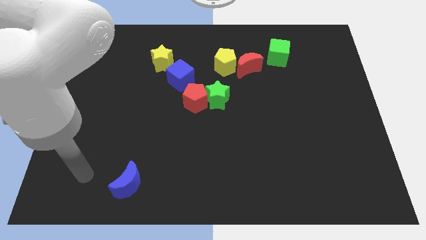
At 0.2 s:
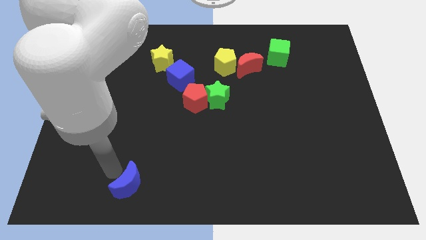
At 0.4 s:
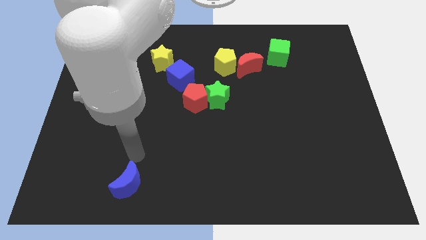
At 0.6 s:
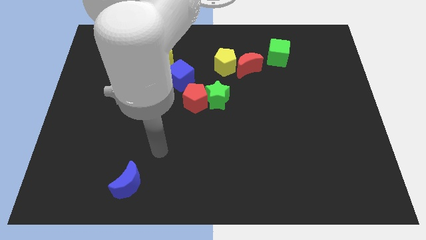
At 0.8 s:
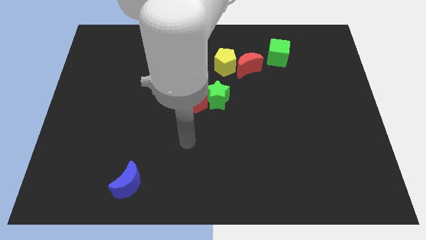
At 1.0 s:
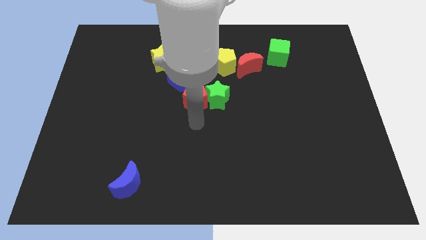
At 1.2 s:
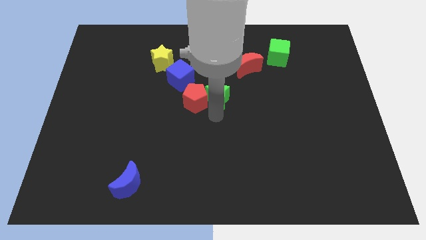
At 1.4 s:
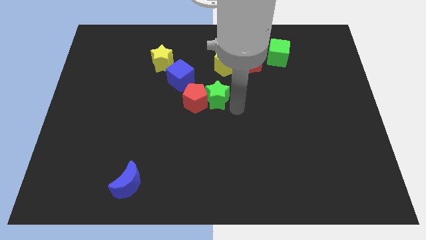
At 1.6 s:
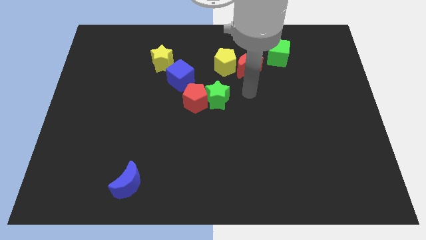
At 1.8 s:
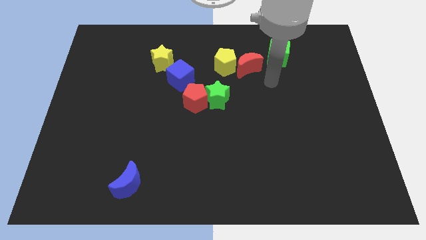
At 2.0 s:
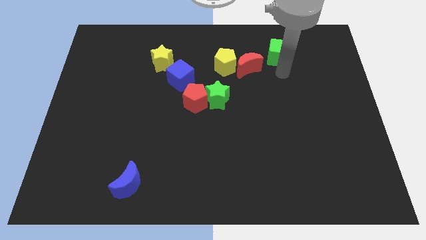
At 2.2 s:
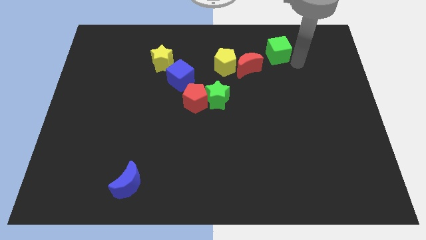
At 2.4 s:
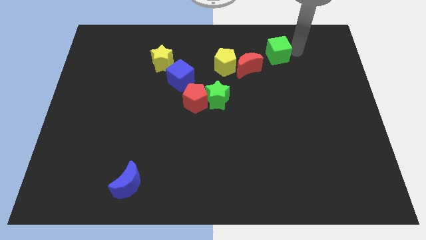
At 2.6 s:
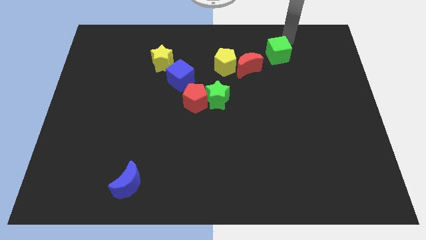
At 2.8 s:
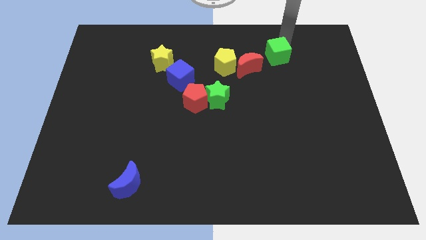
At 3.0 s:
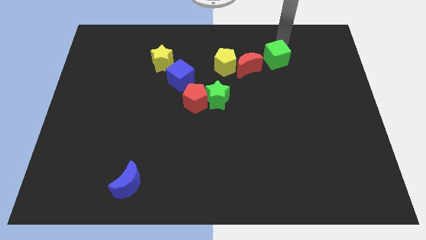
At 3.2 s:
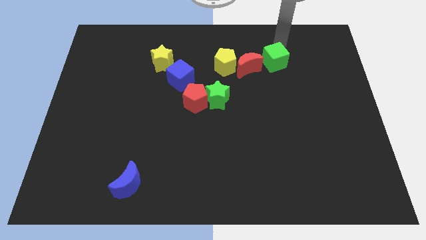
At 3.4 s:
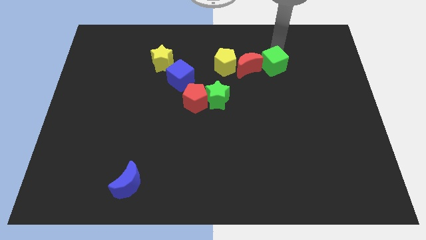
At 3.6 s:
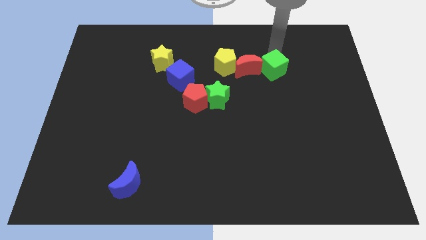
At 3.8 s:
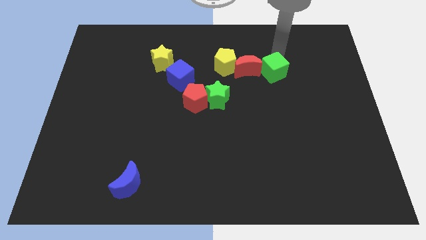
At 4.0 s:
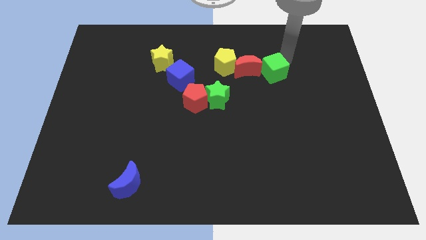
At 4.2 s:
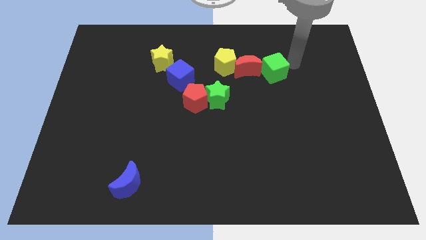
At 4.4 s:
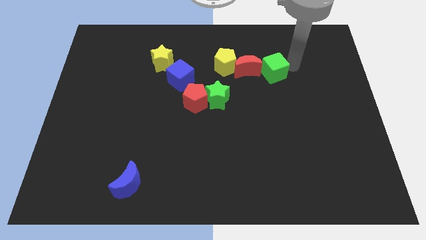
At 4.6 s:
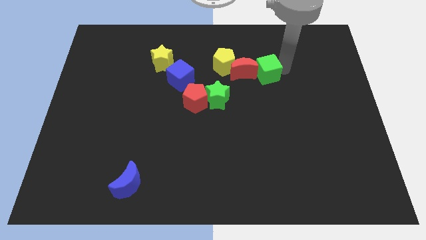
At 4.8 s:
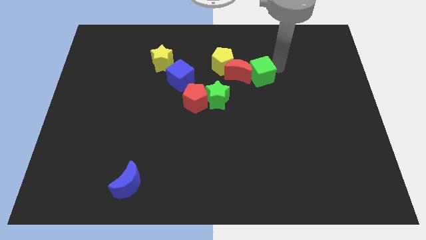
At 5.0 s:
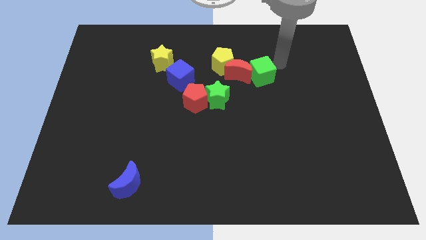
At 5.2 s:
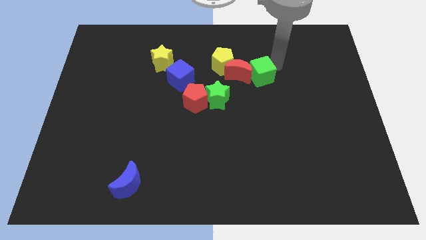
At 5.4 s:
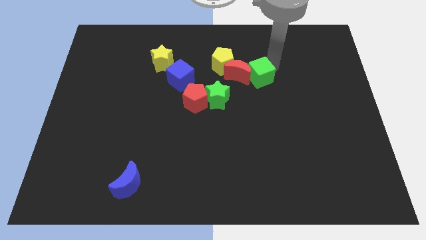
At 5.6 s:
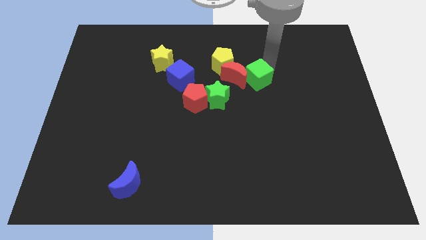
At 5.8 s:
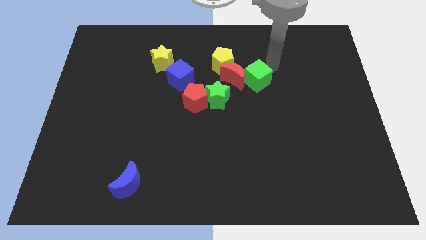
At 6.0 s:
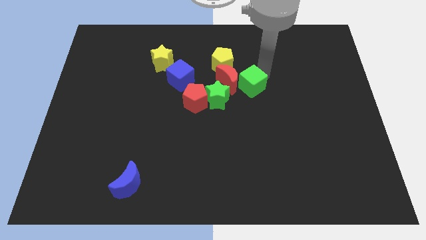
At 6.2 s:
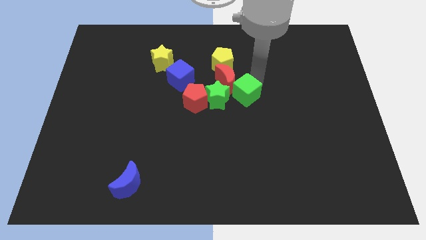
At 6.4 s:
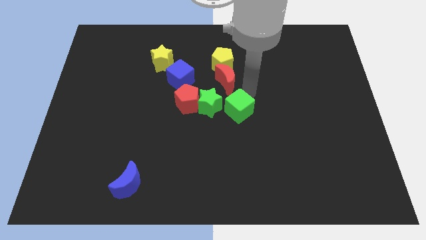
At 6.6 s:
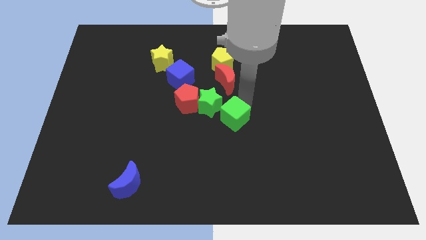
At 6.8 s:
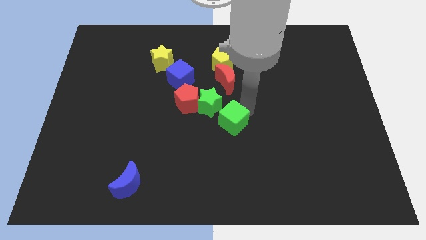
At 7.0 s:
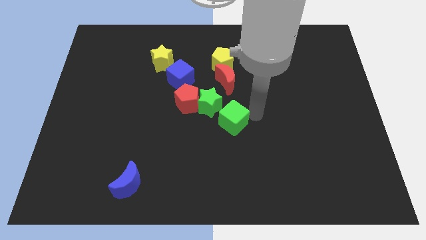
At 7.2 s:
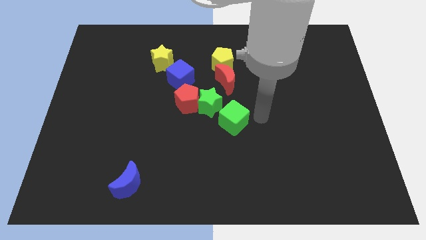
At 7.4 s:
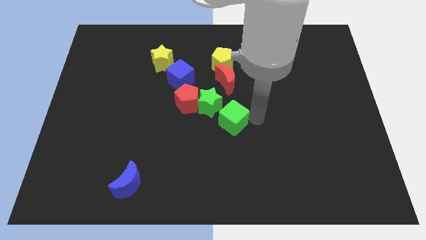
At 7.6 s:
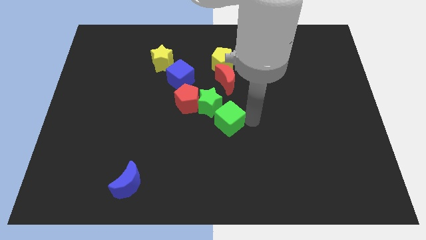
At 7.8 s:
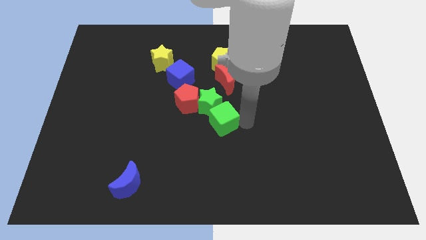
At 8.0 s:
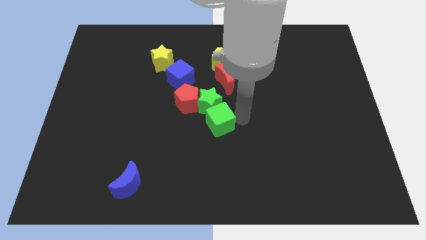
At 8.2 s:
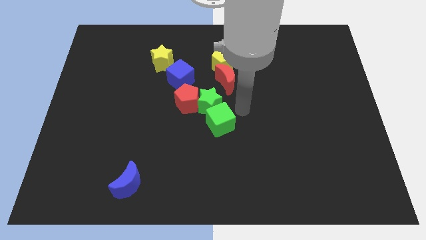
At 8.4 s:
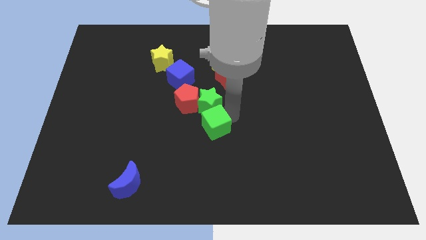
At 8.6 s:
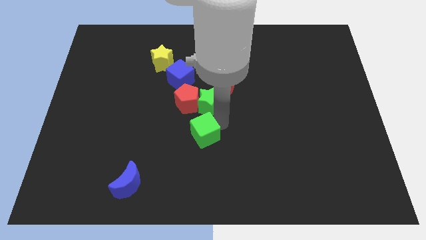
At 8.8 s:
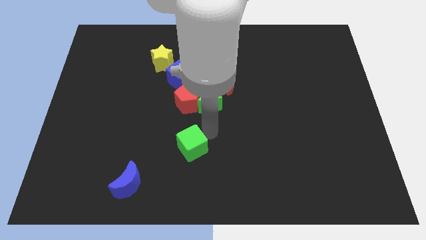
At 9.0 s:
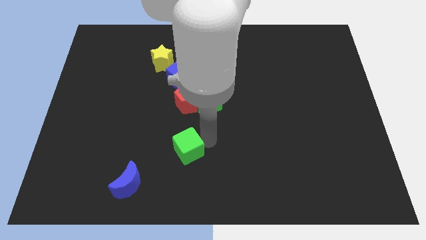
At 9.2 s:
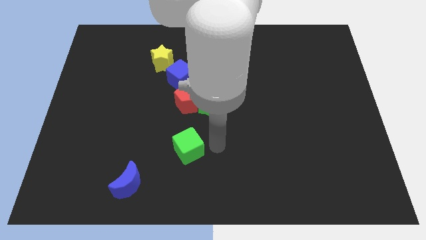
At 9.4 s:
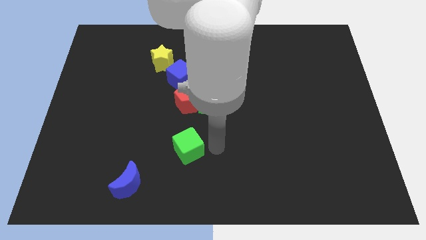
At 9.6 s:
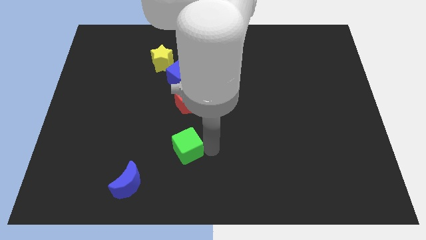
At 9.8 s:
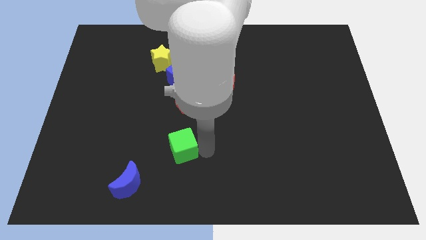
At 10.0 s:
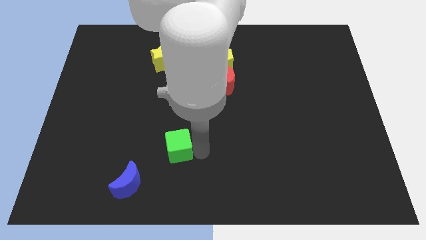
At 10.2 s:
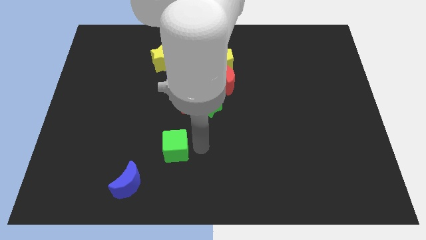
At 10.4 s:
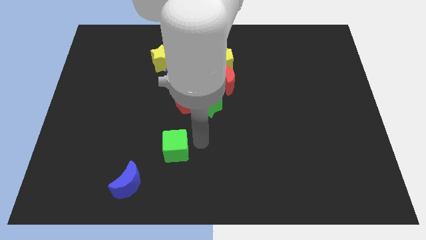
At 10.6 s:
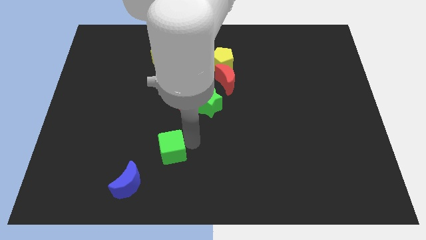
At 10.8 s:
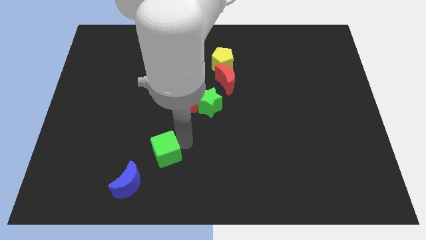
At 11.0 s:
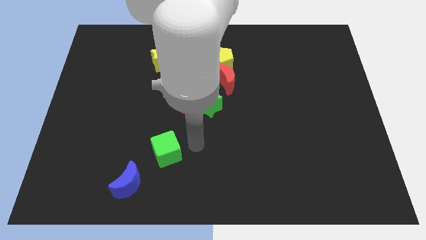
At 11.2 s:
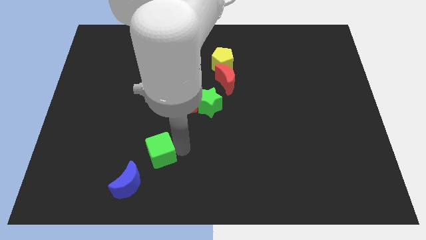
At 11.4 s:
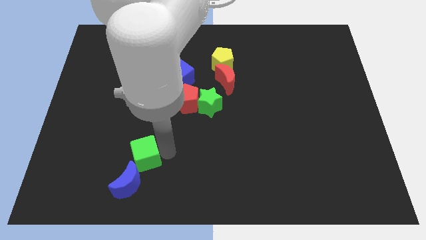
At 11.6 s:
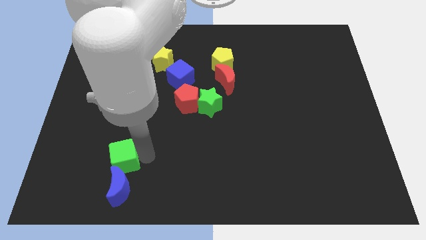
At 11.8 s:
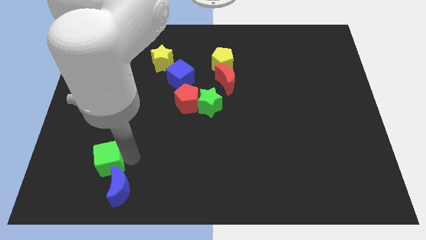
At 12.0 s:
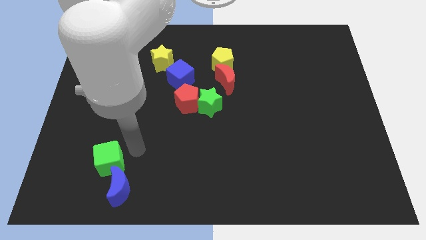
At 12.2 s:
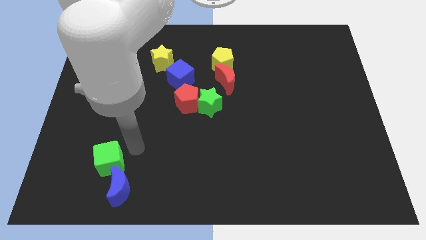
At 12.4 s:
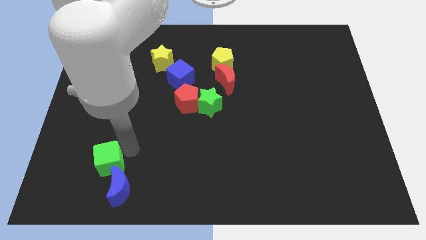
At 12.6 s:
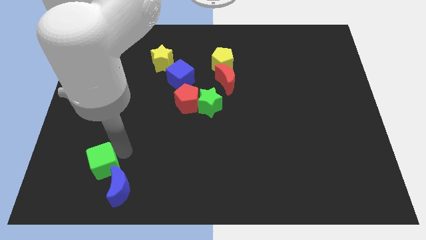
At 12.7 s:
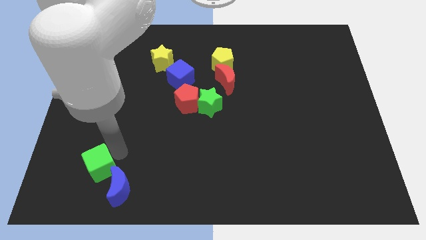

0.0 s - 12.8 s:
slide the green cube to the left side of the blue moon
